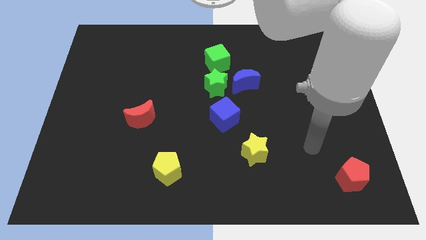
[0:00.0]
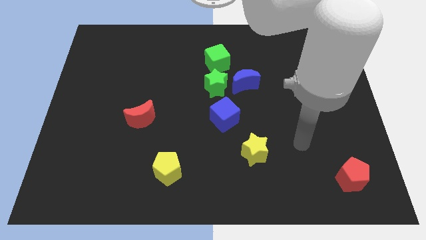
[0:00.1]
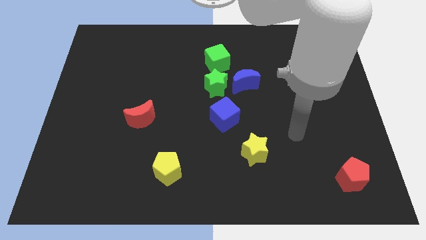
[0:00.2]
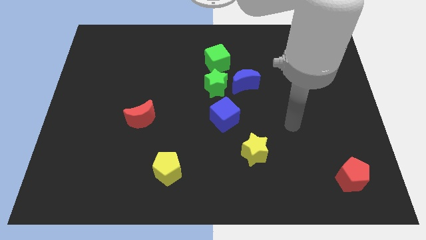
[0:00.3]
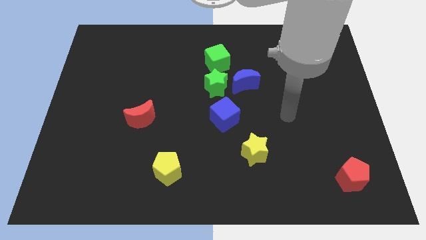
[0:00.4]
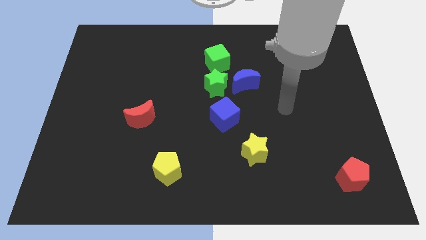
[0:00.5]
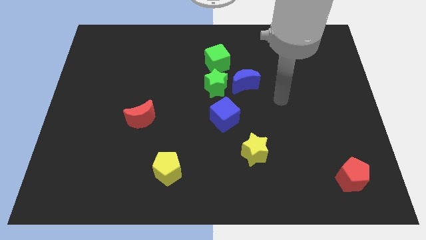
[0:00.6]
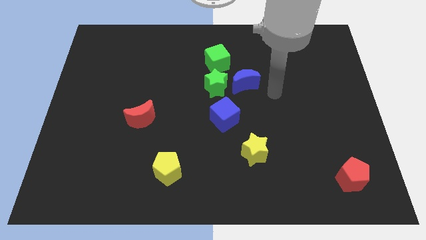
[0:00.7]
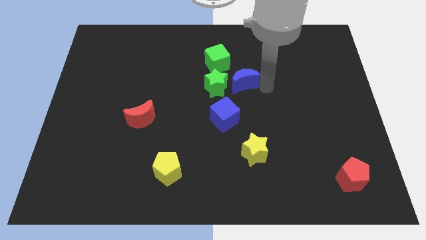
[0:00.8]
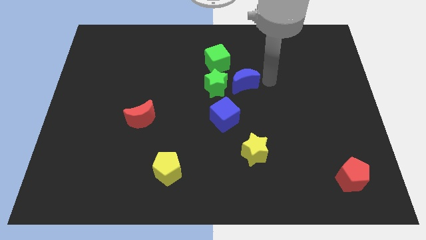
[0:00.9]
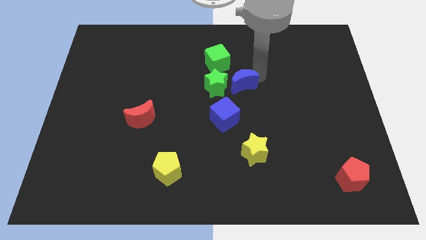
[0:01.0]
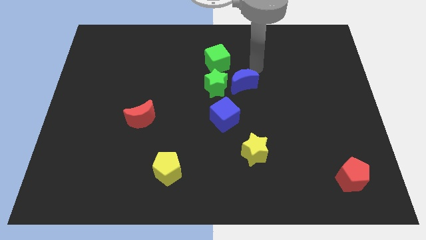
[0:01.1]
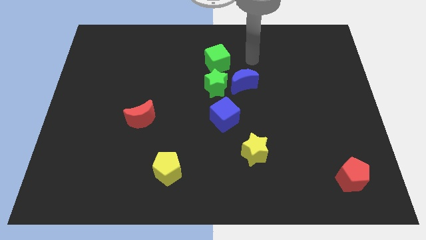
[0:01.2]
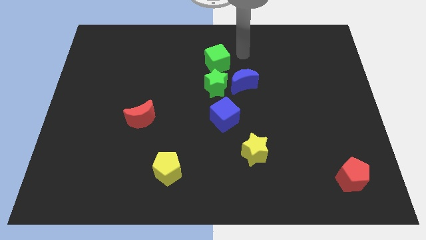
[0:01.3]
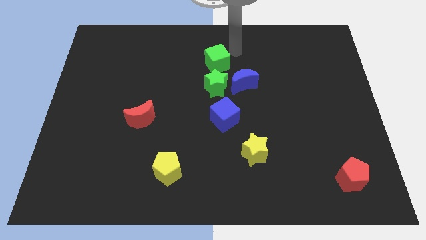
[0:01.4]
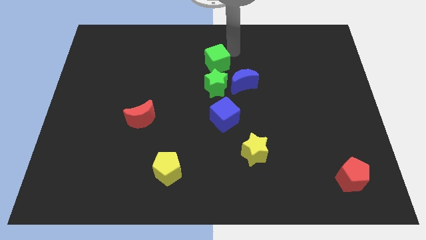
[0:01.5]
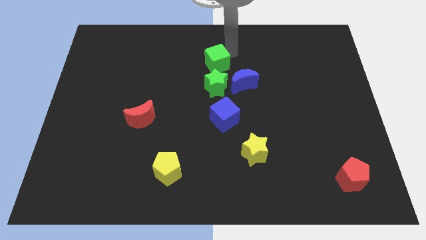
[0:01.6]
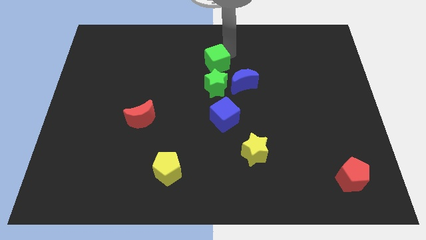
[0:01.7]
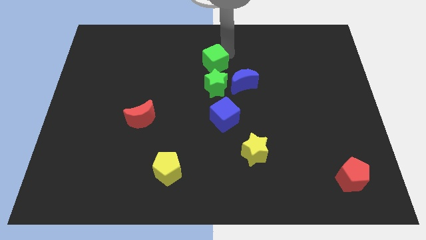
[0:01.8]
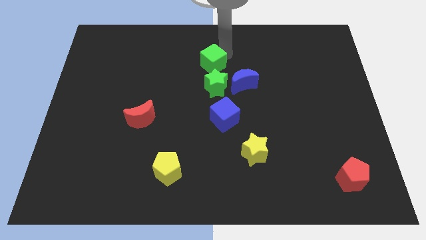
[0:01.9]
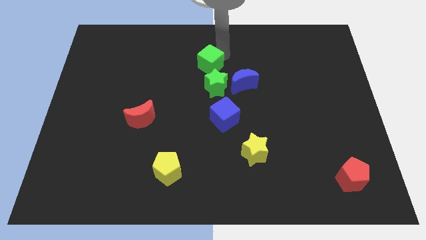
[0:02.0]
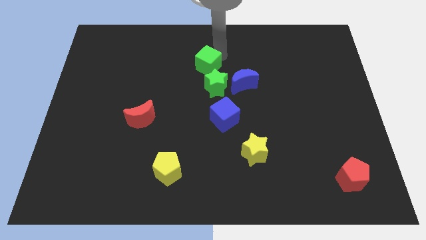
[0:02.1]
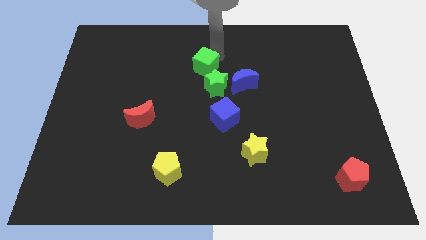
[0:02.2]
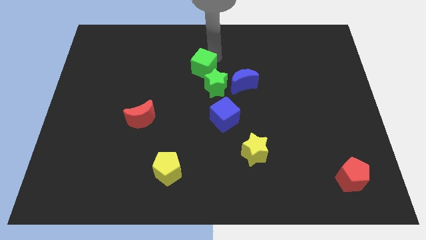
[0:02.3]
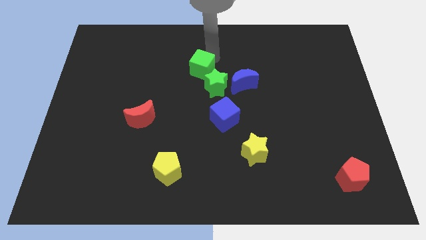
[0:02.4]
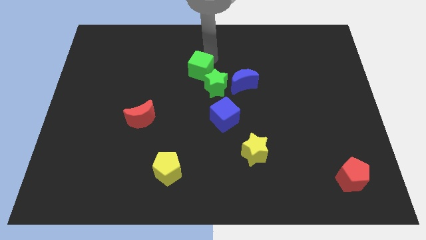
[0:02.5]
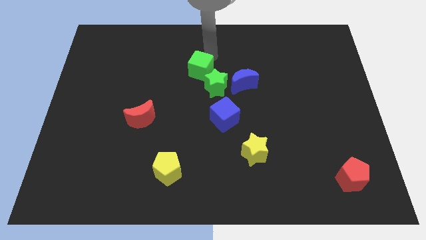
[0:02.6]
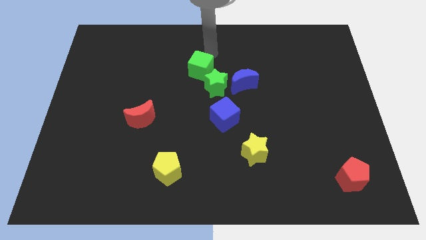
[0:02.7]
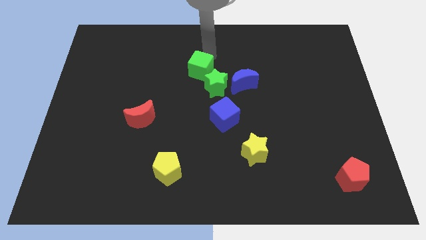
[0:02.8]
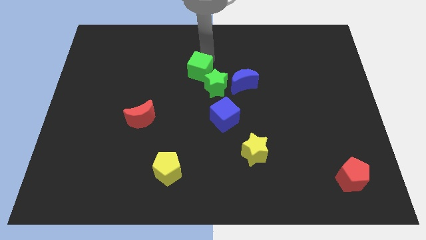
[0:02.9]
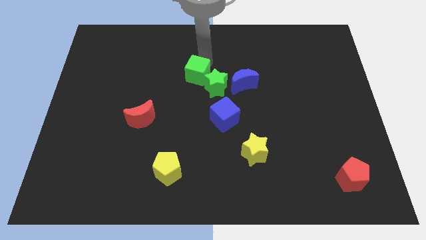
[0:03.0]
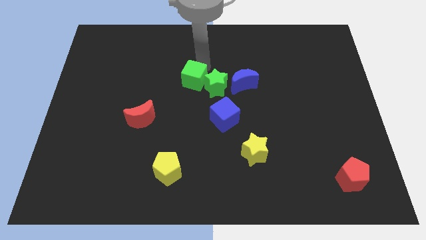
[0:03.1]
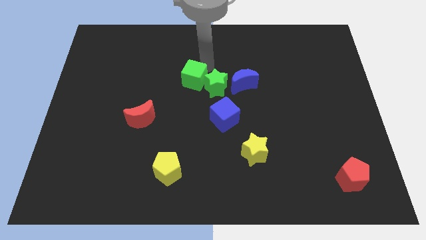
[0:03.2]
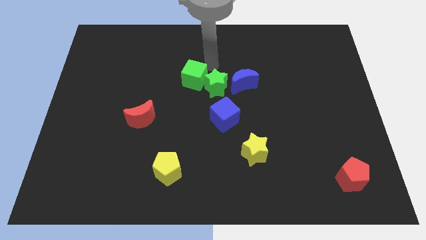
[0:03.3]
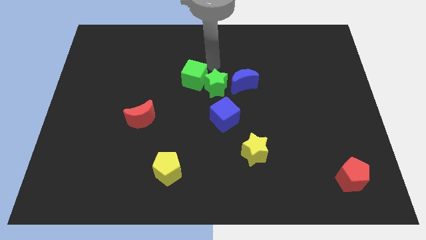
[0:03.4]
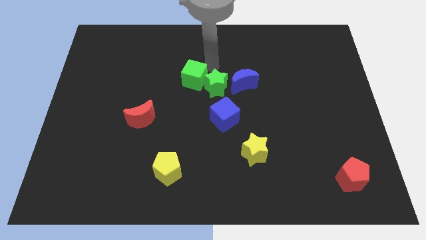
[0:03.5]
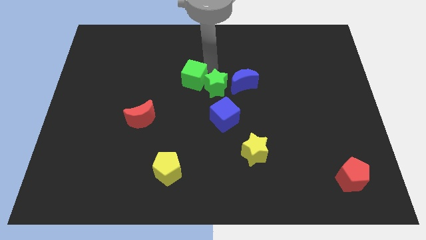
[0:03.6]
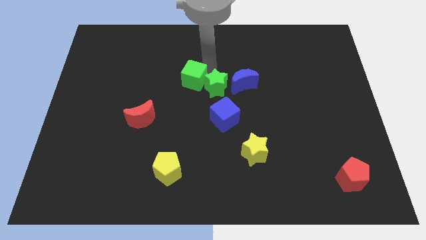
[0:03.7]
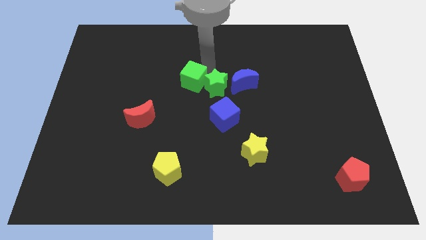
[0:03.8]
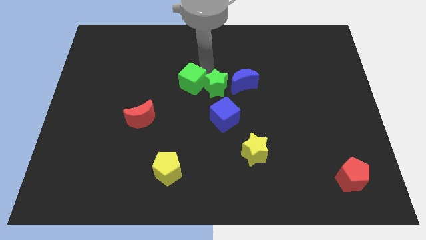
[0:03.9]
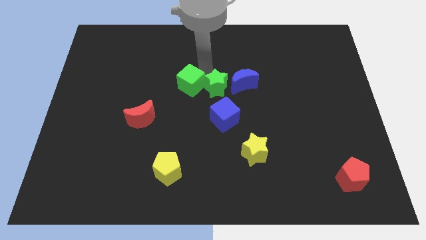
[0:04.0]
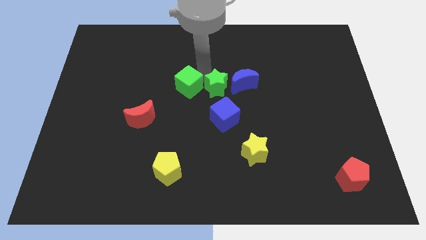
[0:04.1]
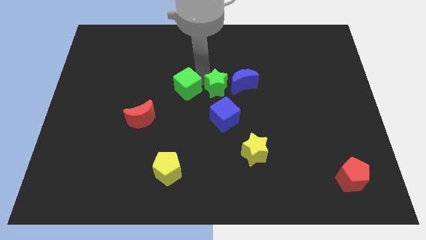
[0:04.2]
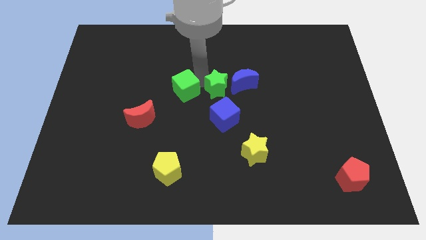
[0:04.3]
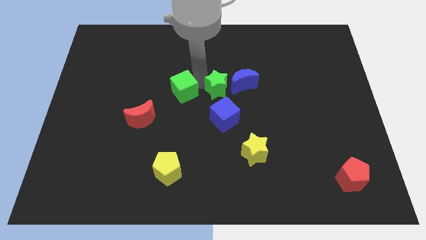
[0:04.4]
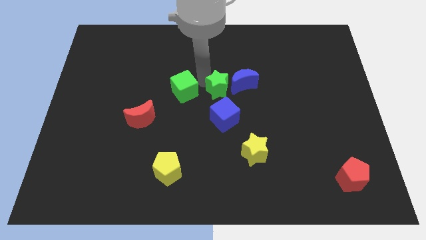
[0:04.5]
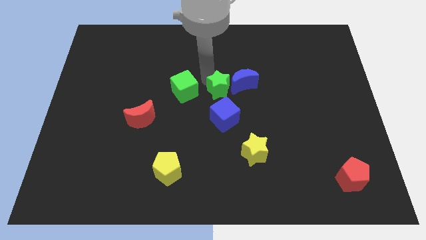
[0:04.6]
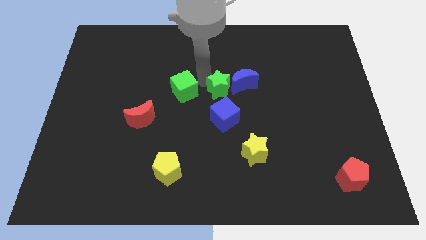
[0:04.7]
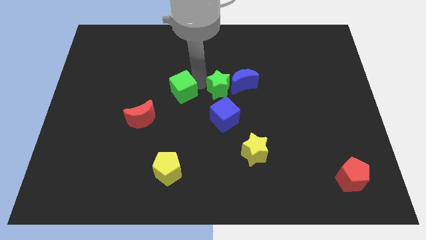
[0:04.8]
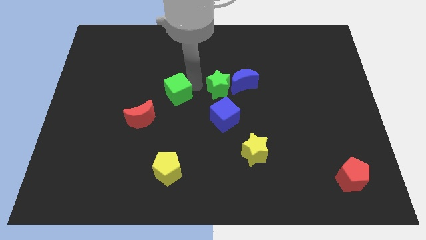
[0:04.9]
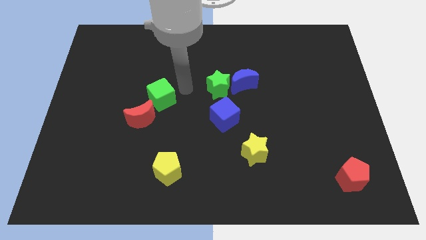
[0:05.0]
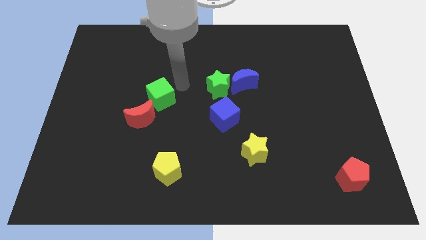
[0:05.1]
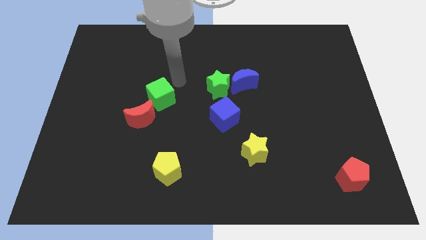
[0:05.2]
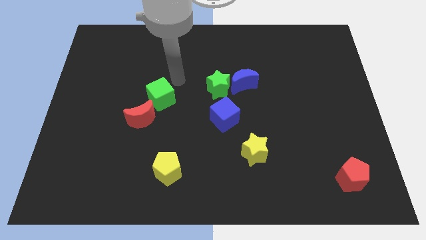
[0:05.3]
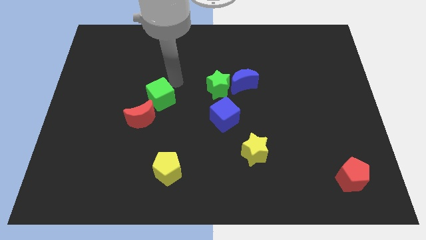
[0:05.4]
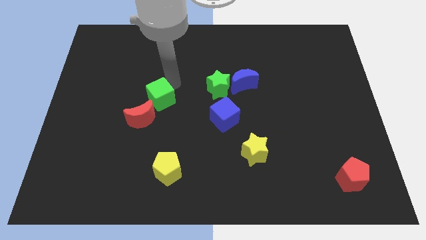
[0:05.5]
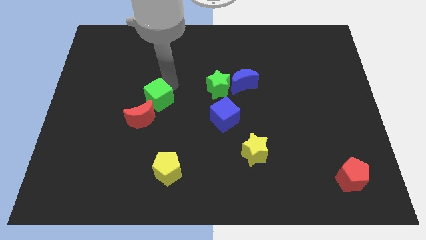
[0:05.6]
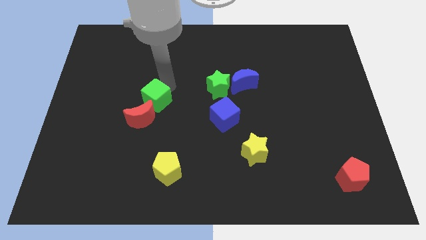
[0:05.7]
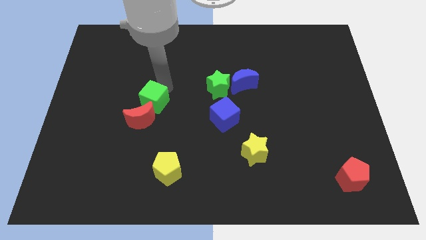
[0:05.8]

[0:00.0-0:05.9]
move the green cube to the red moon

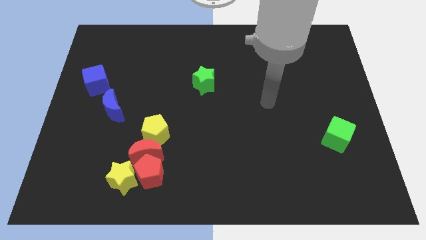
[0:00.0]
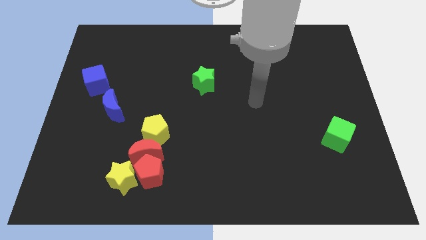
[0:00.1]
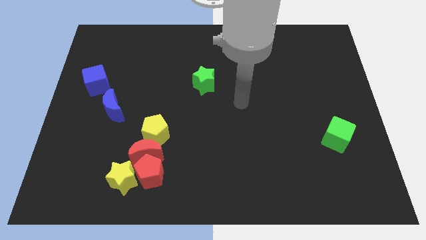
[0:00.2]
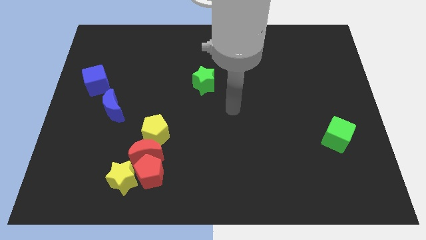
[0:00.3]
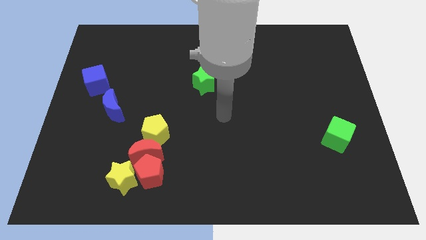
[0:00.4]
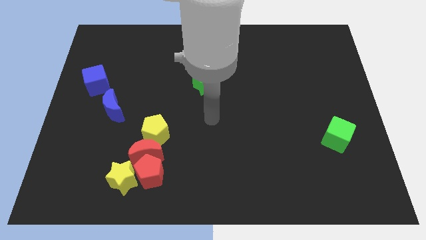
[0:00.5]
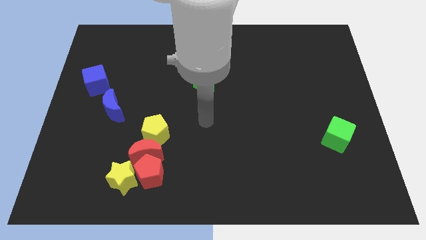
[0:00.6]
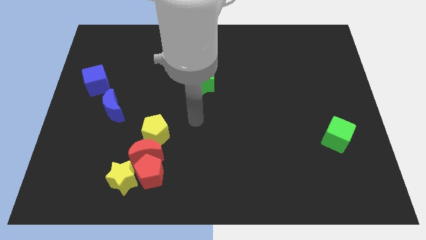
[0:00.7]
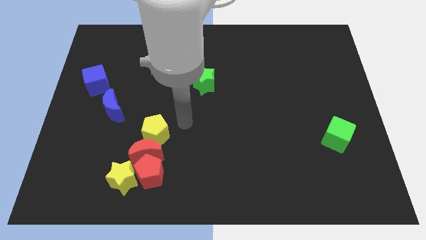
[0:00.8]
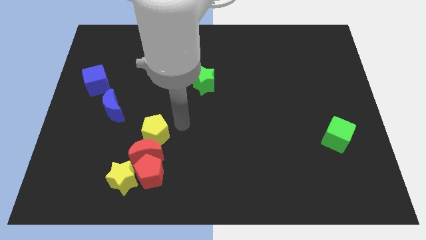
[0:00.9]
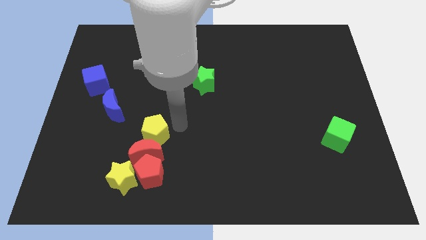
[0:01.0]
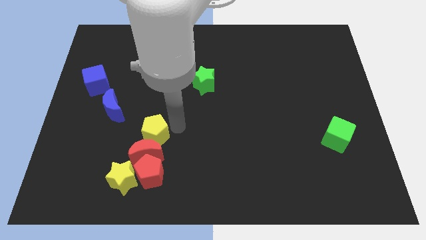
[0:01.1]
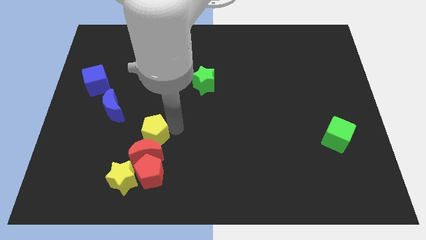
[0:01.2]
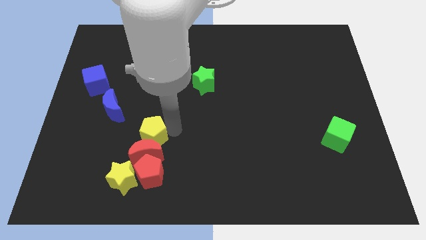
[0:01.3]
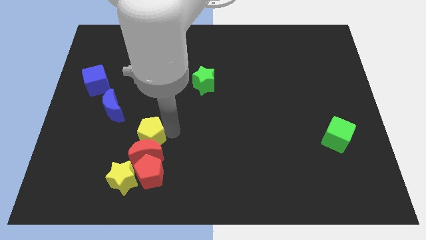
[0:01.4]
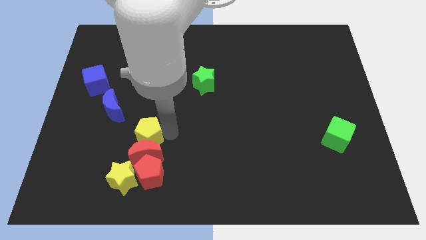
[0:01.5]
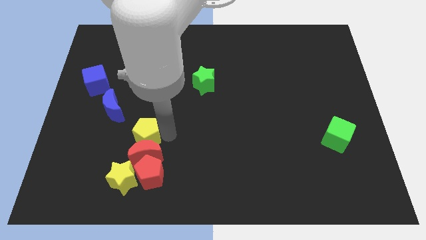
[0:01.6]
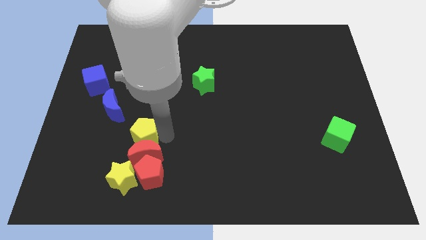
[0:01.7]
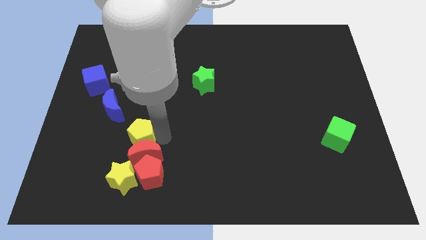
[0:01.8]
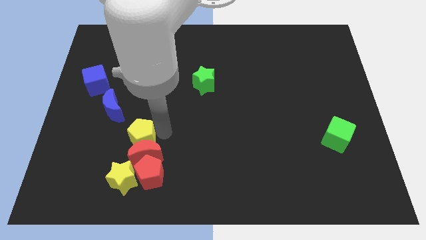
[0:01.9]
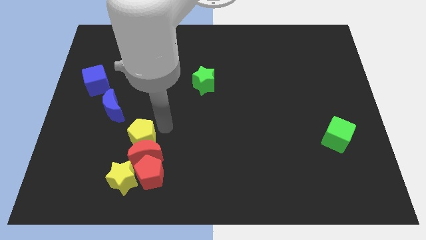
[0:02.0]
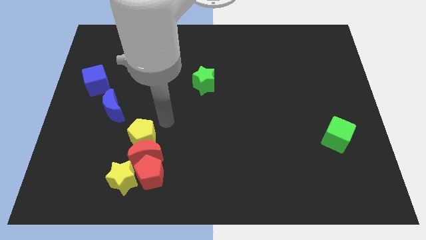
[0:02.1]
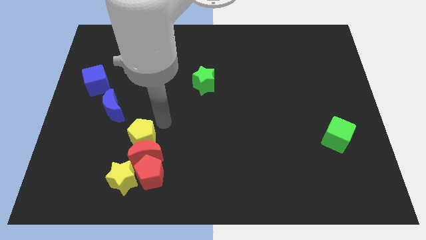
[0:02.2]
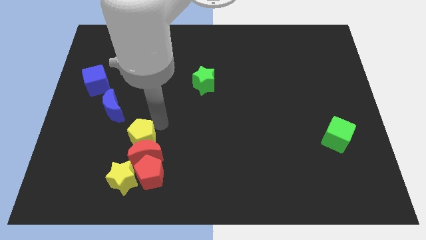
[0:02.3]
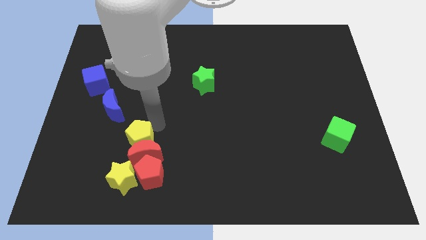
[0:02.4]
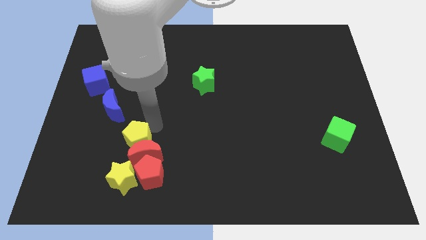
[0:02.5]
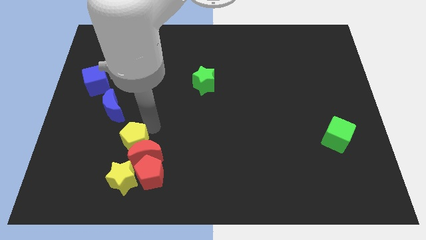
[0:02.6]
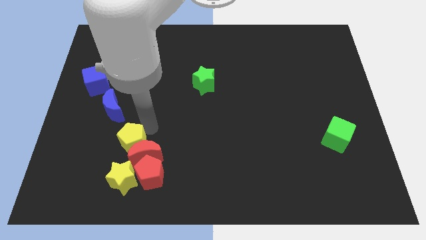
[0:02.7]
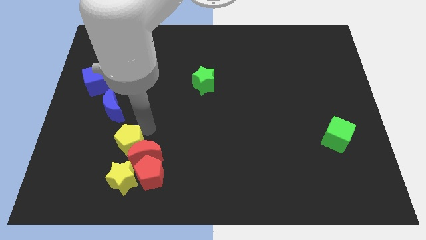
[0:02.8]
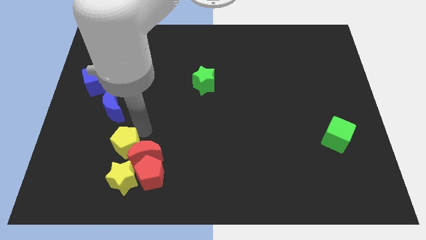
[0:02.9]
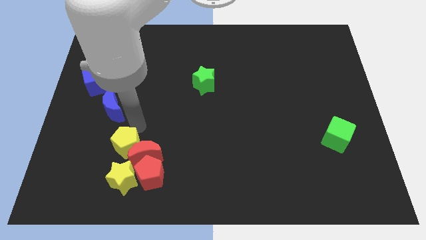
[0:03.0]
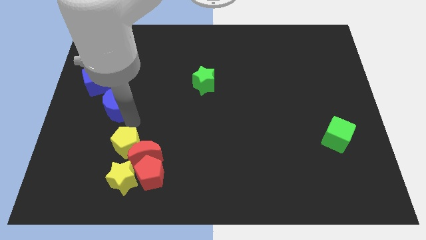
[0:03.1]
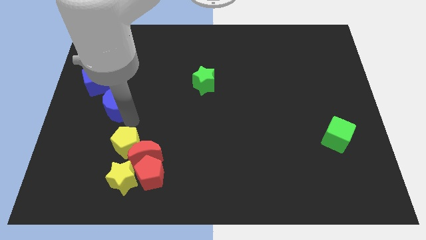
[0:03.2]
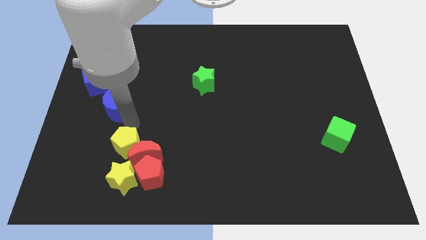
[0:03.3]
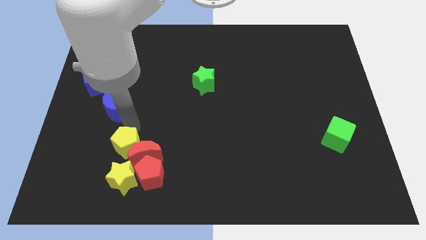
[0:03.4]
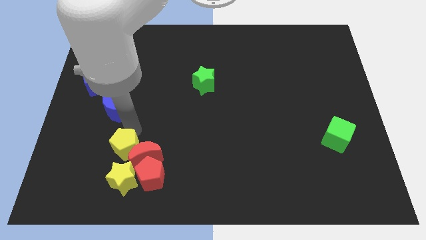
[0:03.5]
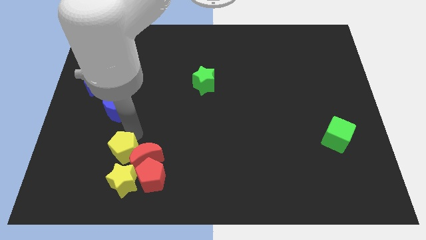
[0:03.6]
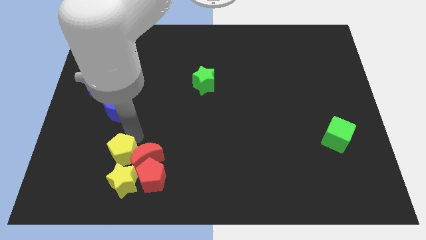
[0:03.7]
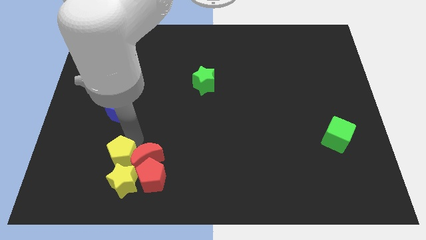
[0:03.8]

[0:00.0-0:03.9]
slide the yellow pentagon next to the yellow star
